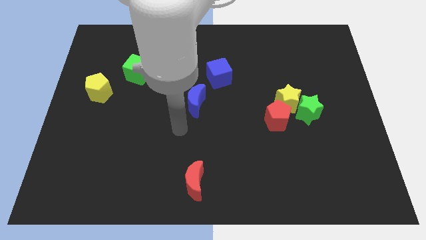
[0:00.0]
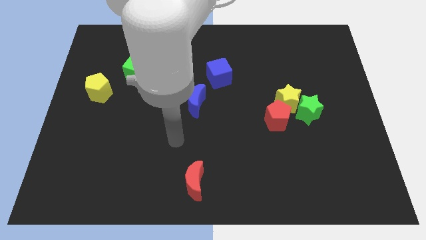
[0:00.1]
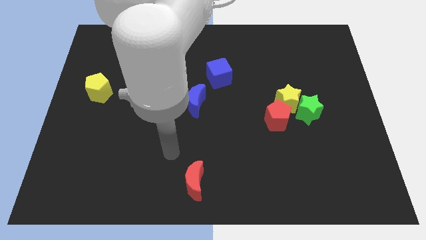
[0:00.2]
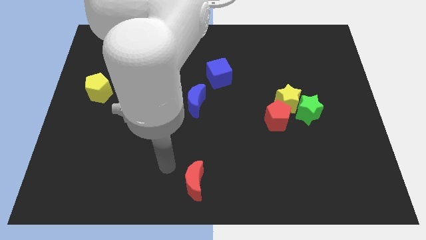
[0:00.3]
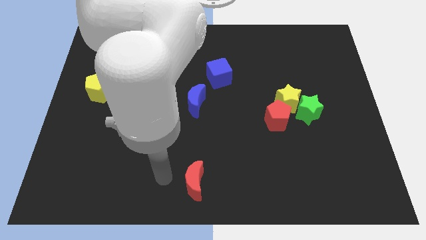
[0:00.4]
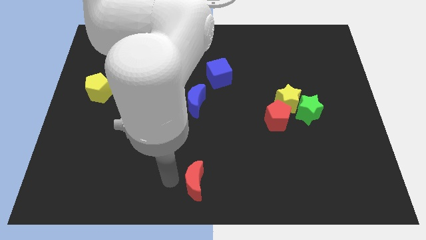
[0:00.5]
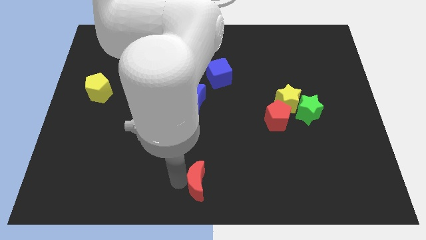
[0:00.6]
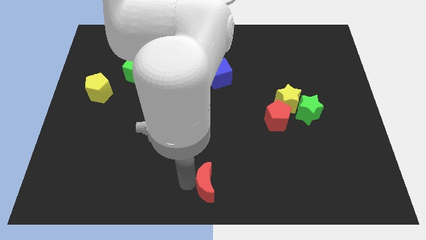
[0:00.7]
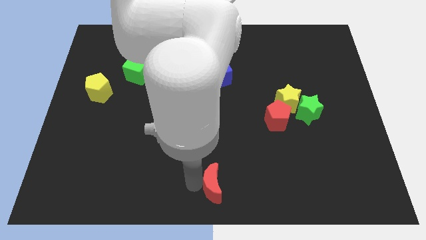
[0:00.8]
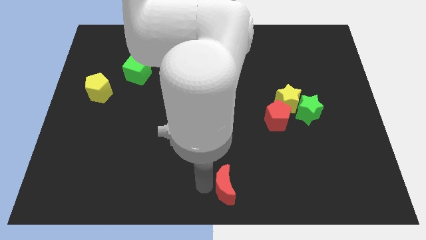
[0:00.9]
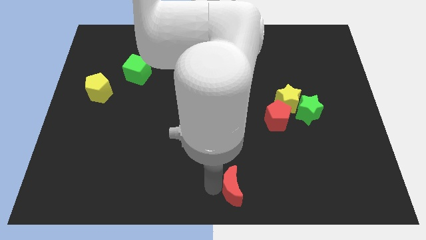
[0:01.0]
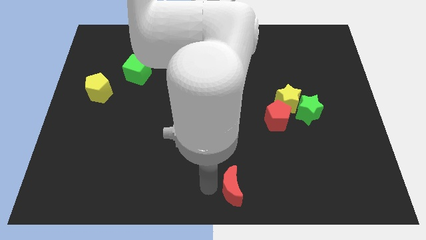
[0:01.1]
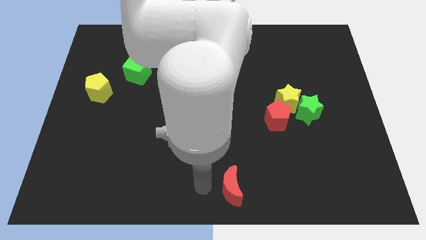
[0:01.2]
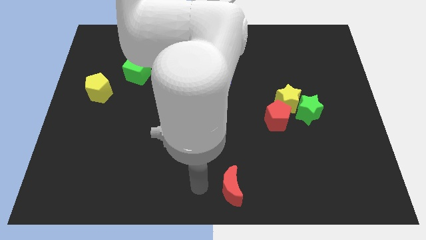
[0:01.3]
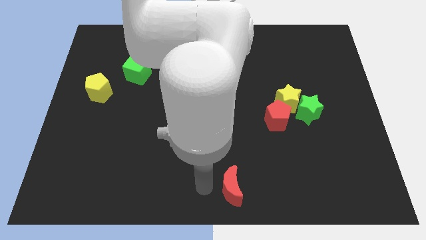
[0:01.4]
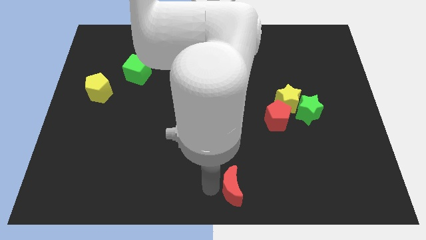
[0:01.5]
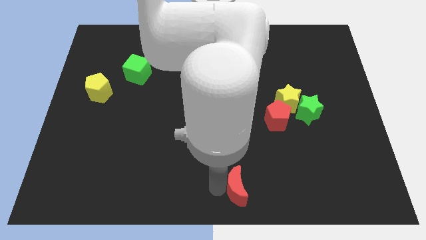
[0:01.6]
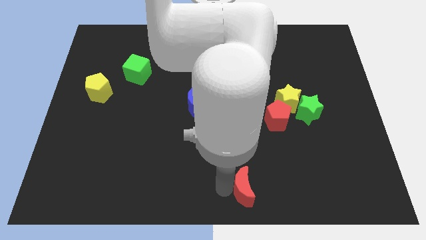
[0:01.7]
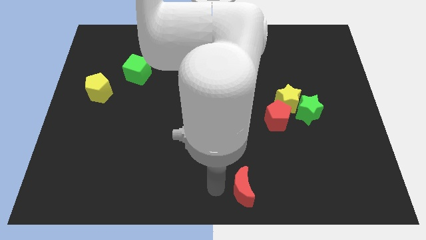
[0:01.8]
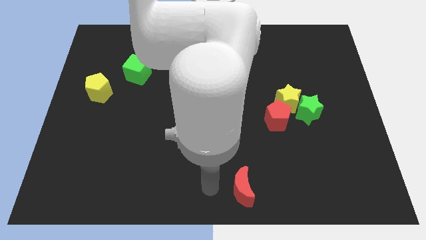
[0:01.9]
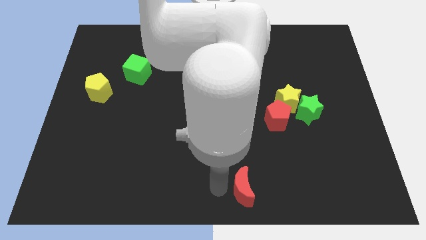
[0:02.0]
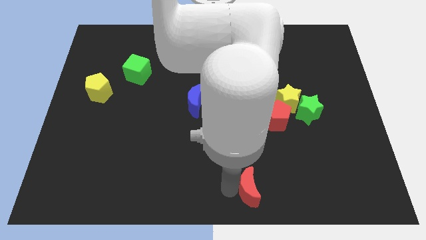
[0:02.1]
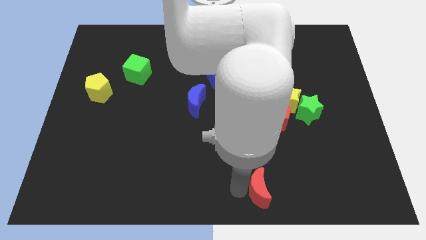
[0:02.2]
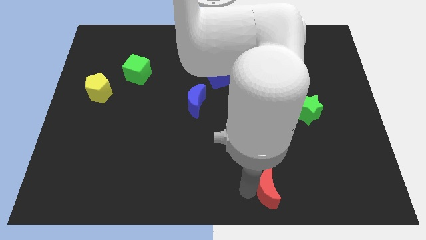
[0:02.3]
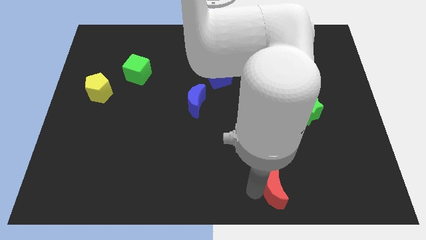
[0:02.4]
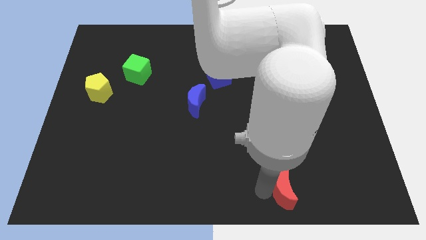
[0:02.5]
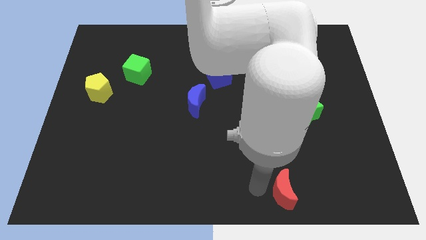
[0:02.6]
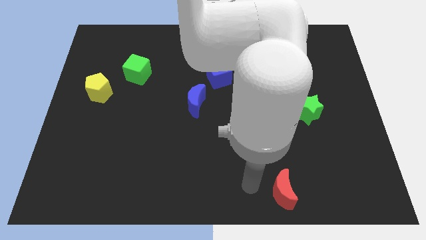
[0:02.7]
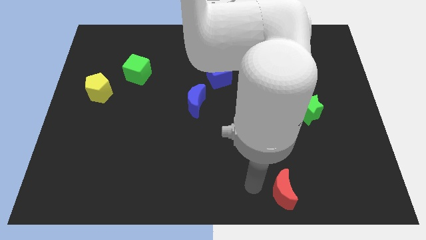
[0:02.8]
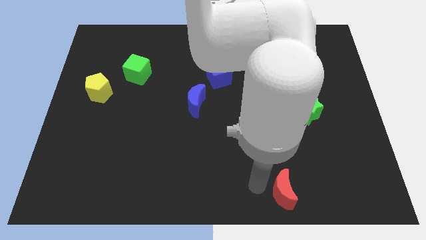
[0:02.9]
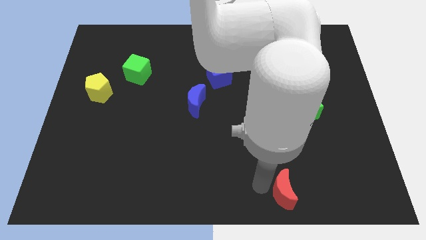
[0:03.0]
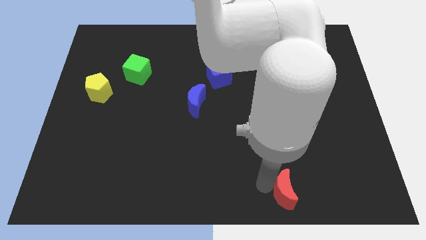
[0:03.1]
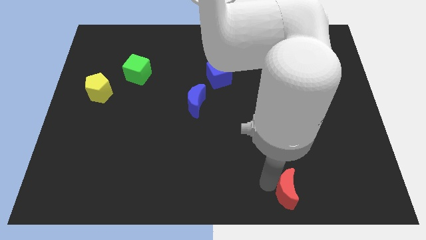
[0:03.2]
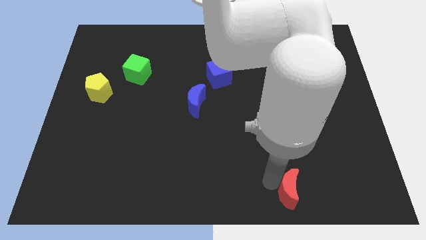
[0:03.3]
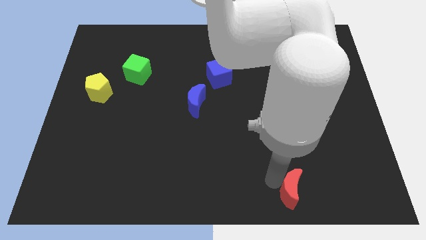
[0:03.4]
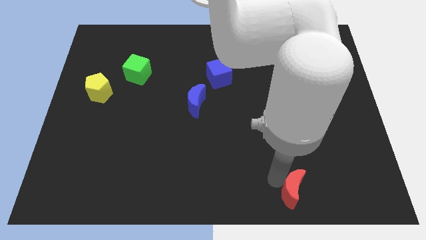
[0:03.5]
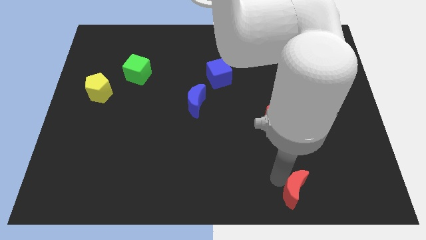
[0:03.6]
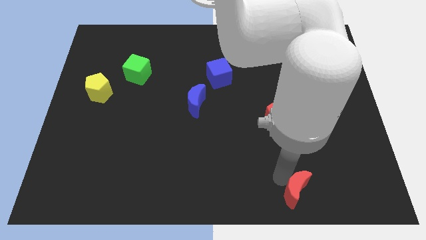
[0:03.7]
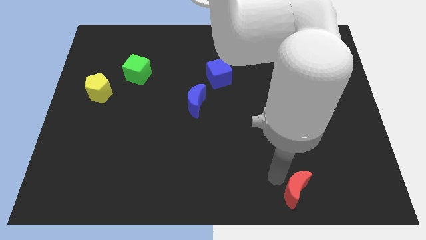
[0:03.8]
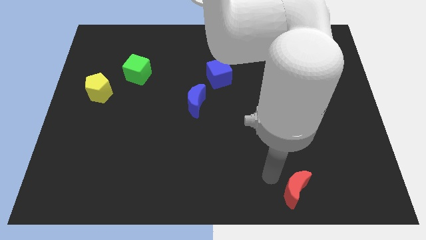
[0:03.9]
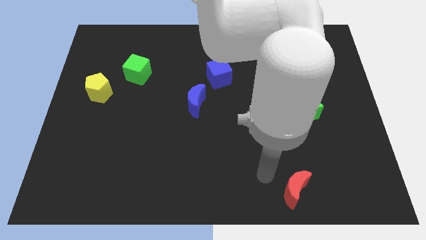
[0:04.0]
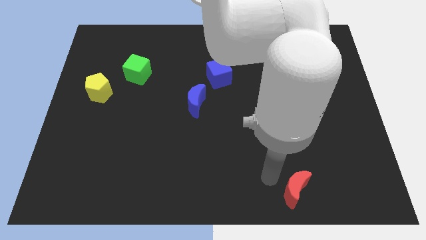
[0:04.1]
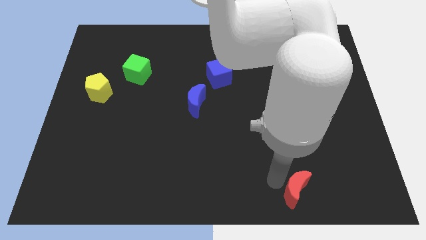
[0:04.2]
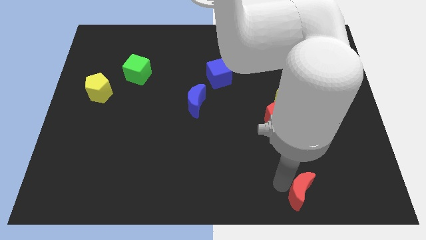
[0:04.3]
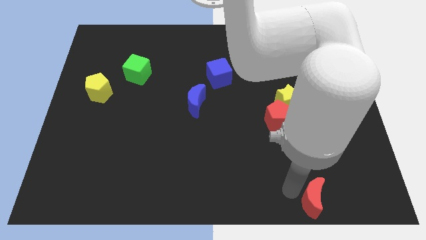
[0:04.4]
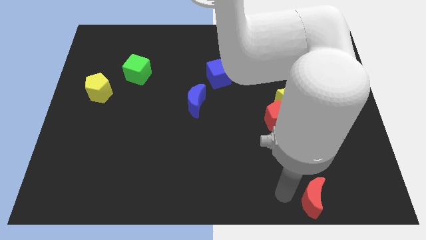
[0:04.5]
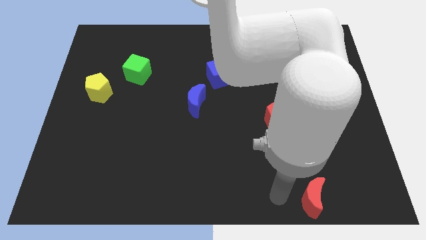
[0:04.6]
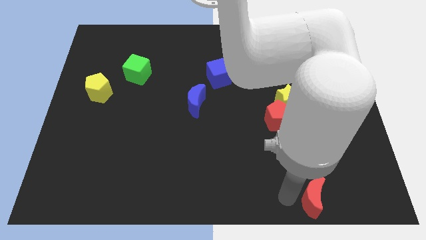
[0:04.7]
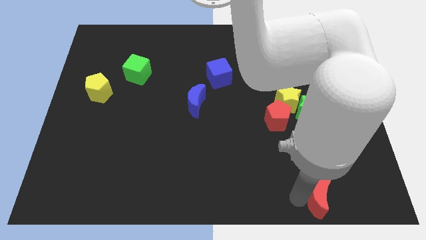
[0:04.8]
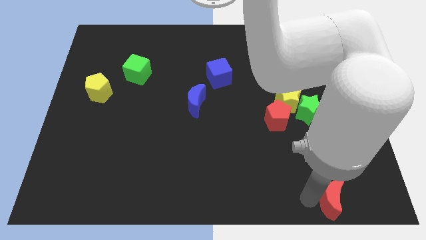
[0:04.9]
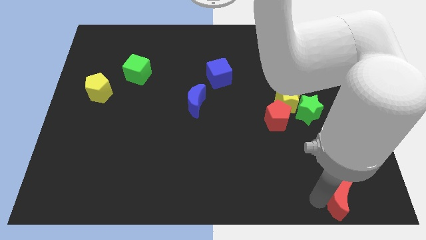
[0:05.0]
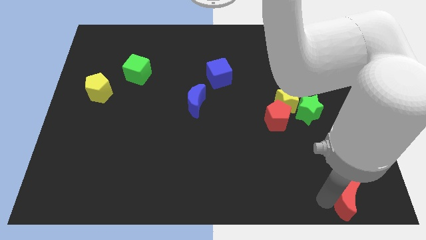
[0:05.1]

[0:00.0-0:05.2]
push the red moon to the bottom right corner

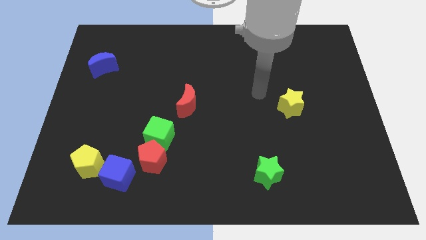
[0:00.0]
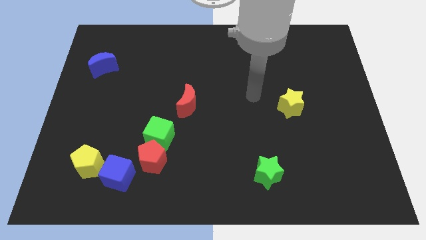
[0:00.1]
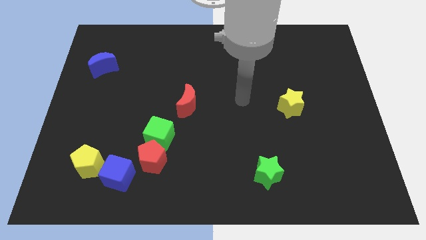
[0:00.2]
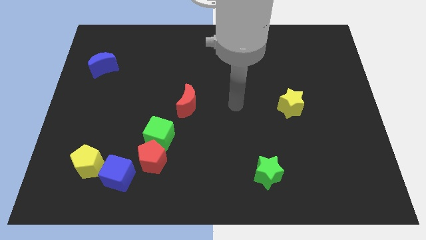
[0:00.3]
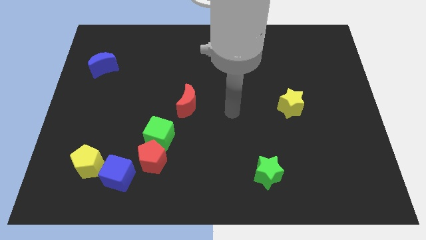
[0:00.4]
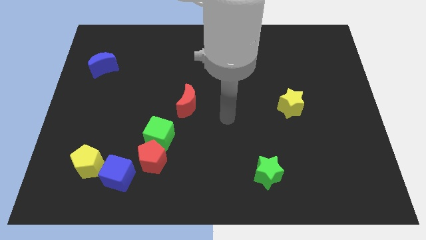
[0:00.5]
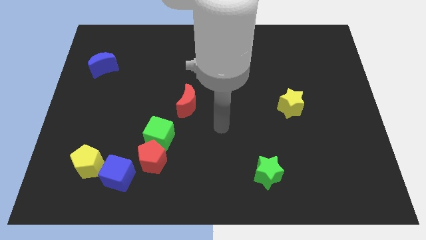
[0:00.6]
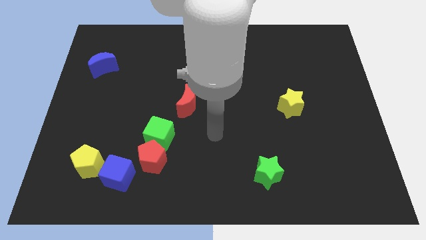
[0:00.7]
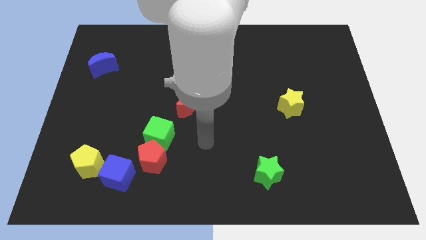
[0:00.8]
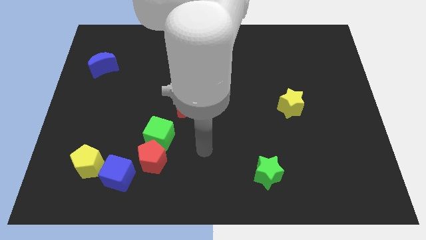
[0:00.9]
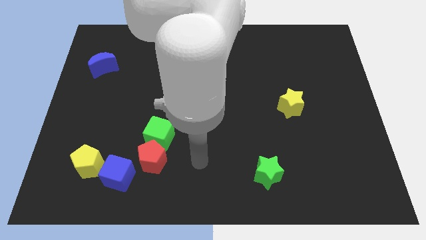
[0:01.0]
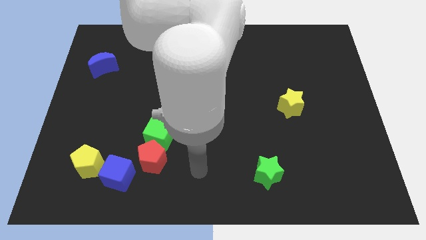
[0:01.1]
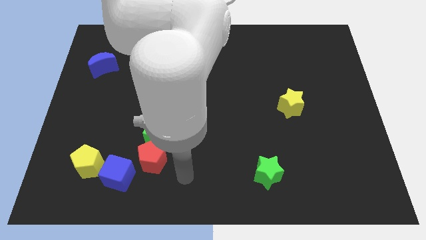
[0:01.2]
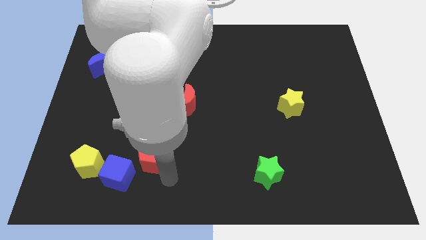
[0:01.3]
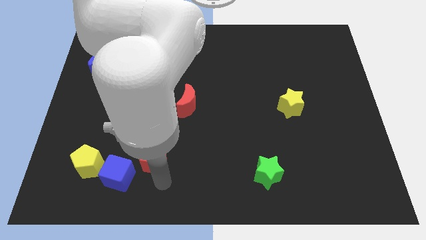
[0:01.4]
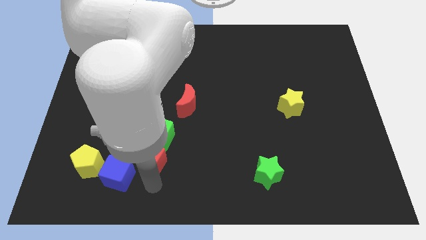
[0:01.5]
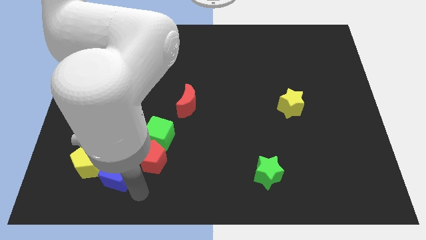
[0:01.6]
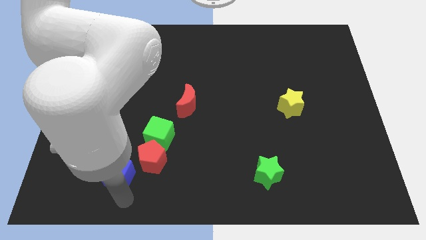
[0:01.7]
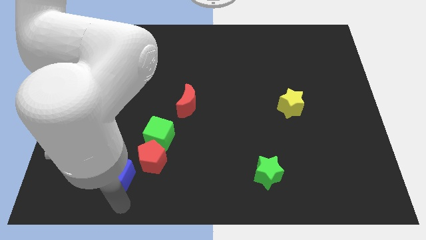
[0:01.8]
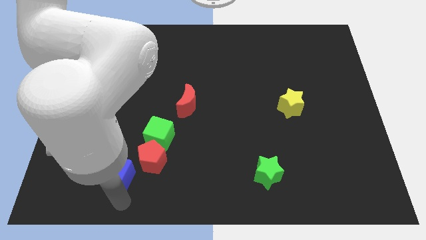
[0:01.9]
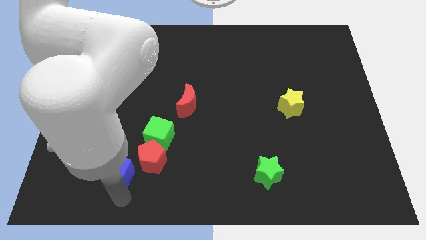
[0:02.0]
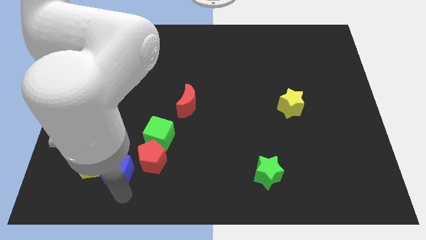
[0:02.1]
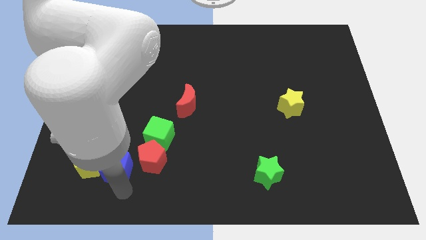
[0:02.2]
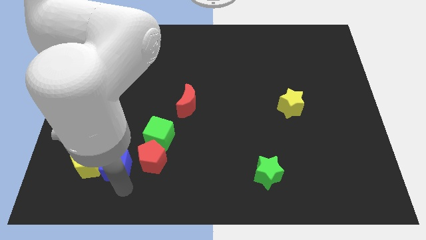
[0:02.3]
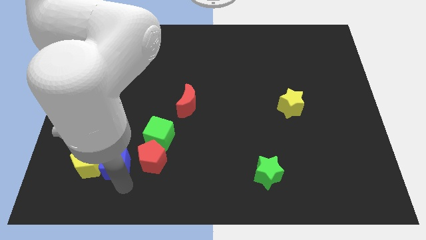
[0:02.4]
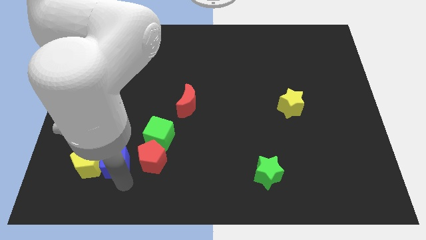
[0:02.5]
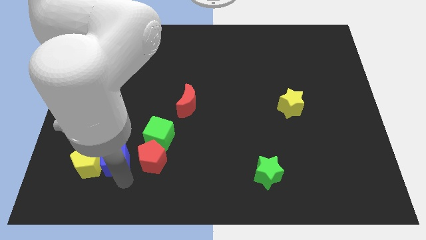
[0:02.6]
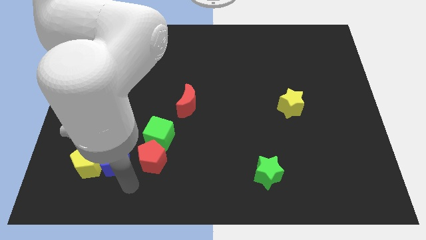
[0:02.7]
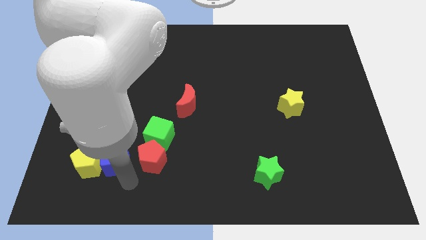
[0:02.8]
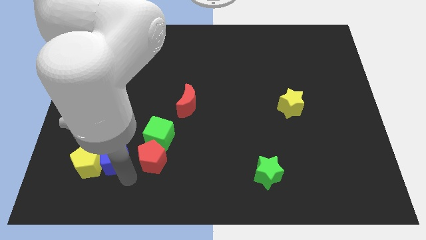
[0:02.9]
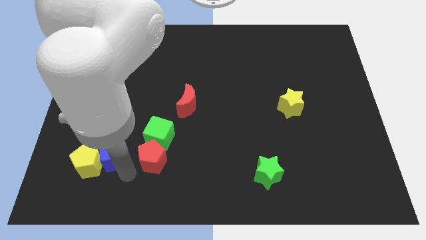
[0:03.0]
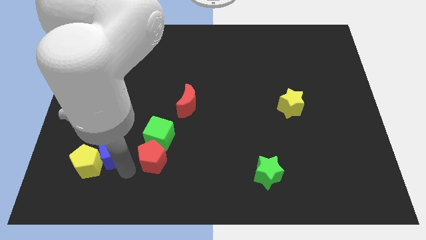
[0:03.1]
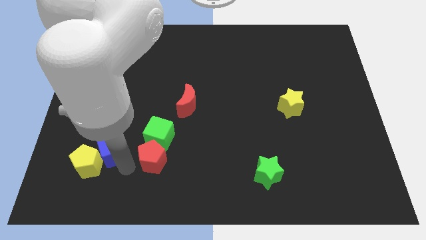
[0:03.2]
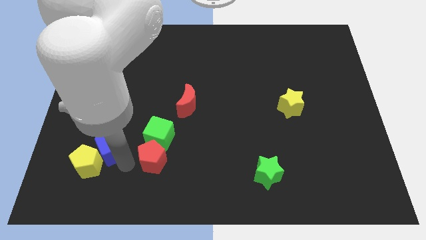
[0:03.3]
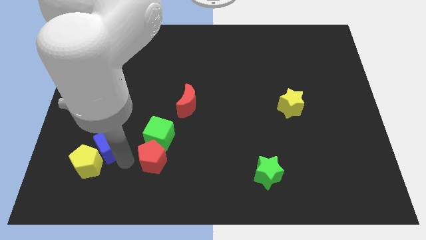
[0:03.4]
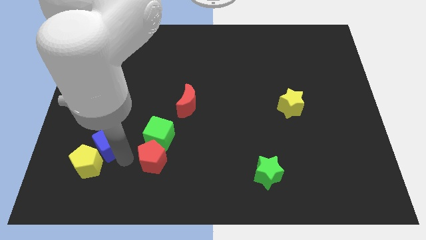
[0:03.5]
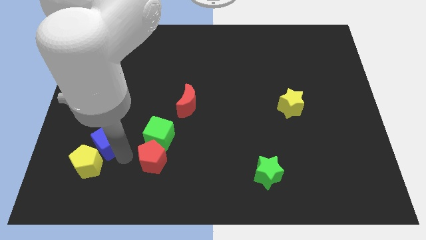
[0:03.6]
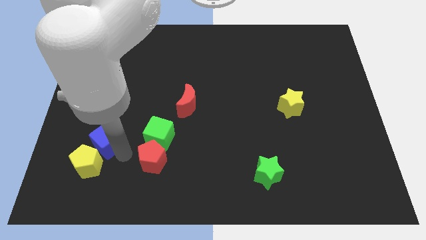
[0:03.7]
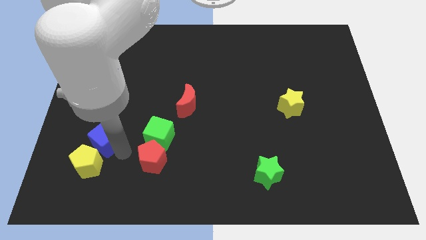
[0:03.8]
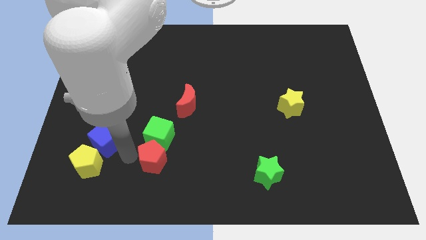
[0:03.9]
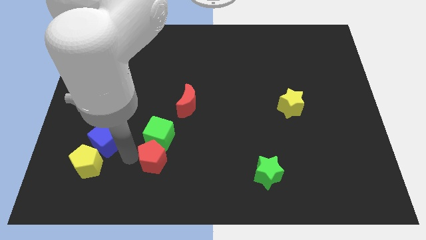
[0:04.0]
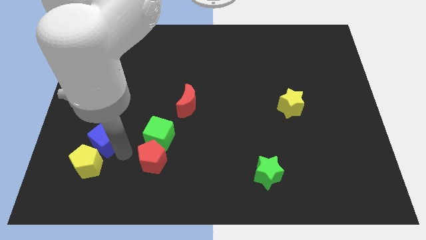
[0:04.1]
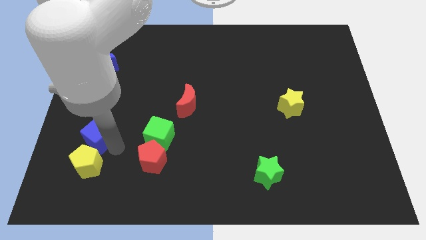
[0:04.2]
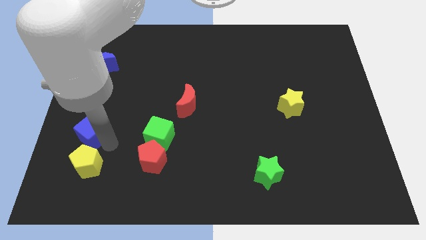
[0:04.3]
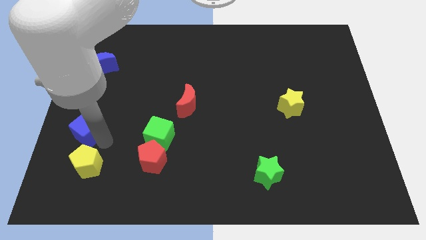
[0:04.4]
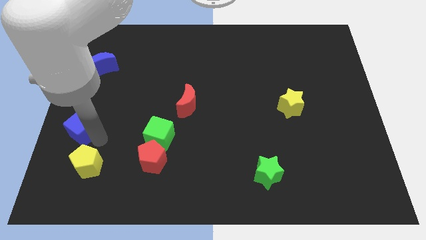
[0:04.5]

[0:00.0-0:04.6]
push the blue cube to the center left
